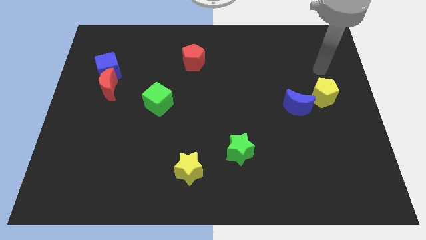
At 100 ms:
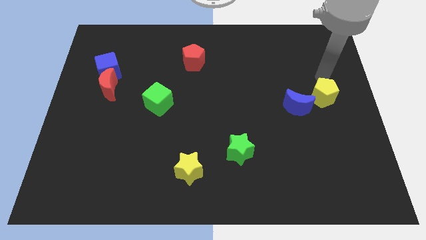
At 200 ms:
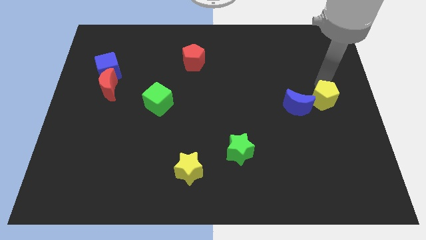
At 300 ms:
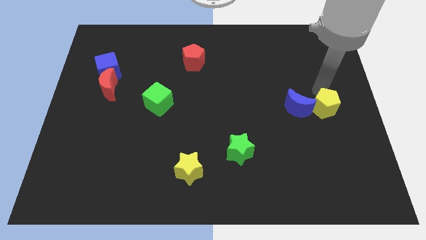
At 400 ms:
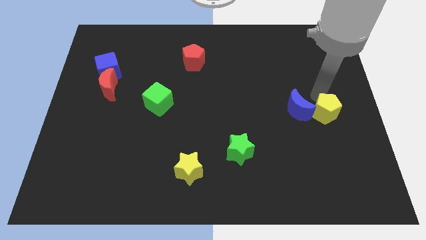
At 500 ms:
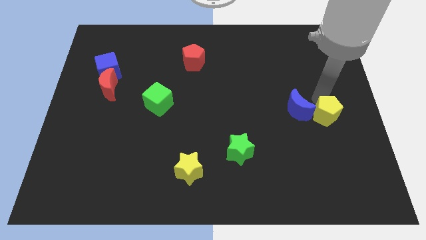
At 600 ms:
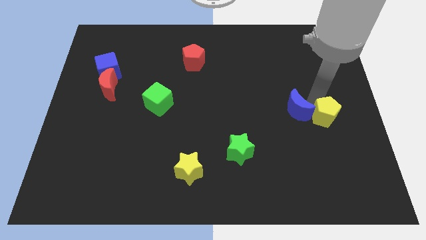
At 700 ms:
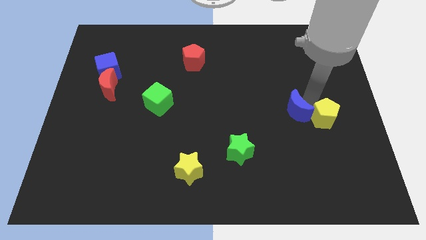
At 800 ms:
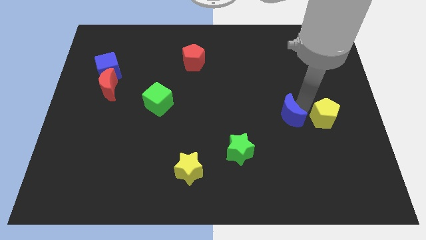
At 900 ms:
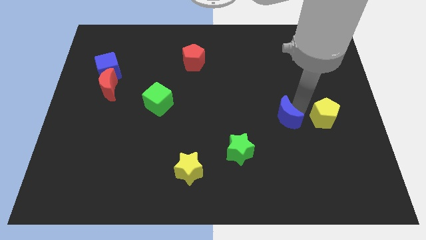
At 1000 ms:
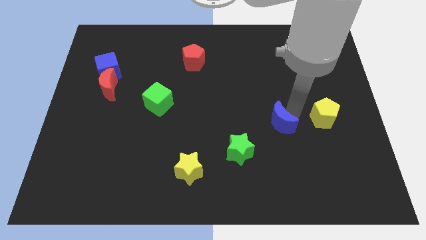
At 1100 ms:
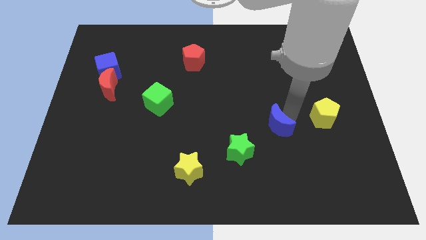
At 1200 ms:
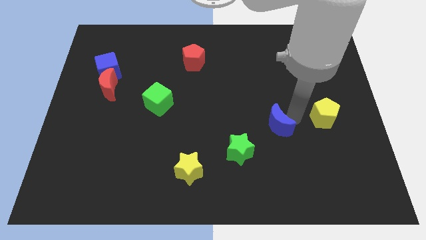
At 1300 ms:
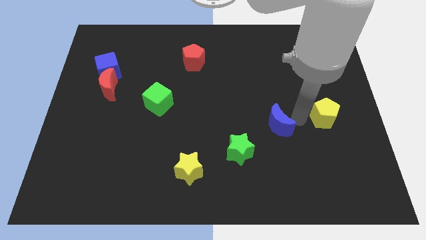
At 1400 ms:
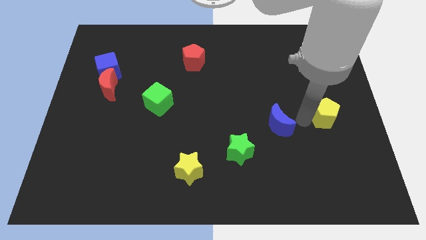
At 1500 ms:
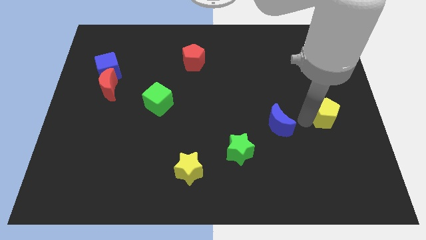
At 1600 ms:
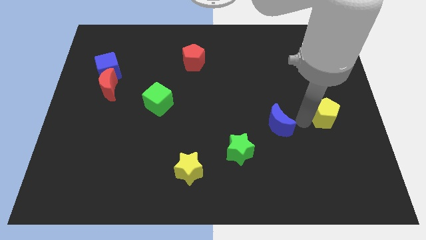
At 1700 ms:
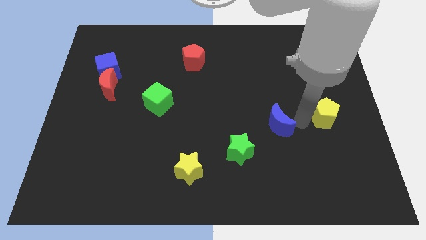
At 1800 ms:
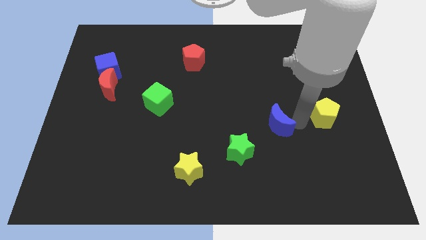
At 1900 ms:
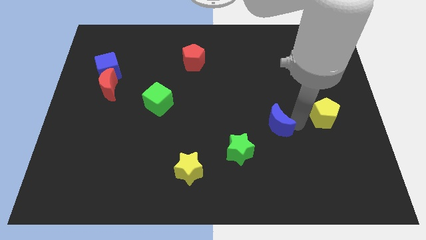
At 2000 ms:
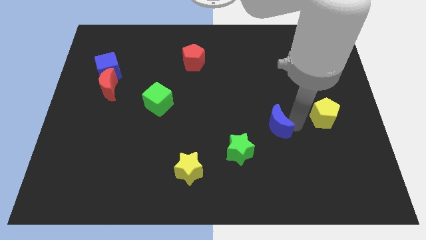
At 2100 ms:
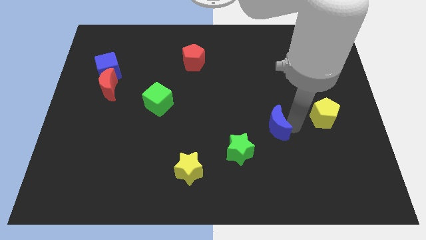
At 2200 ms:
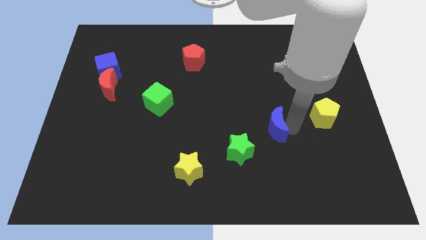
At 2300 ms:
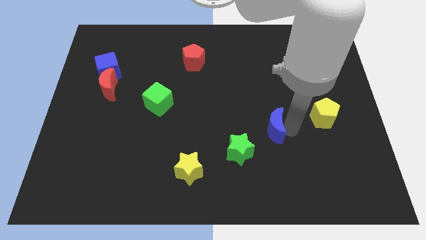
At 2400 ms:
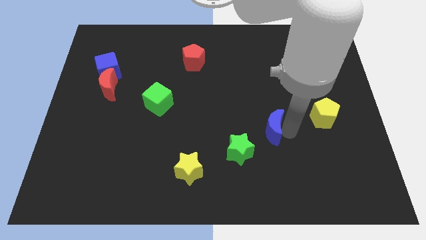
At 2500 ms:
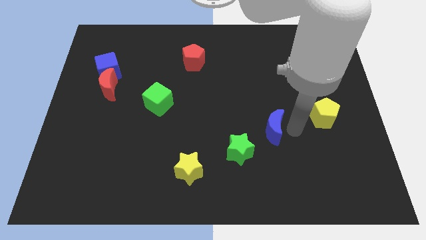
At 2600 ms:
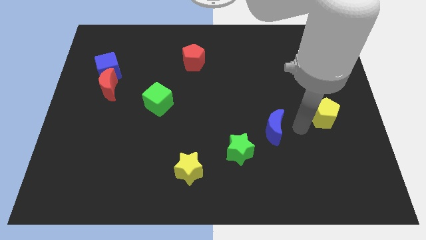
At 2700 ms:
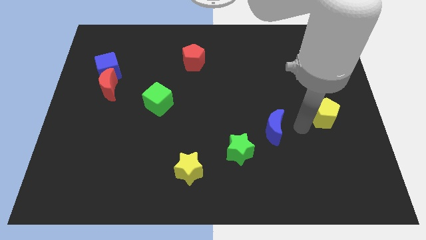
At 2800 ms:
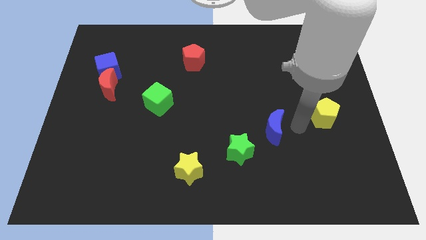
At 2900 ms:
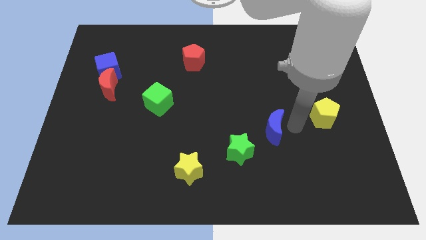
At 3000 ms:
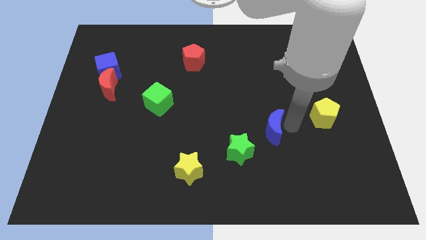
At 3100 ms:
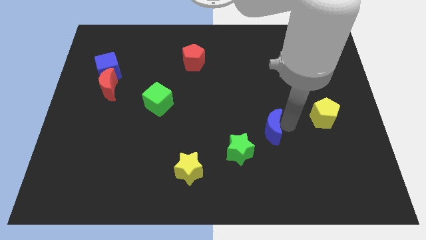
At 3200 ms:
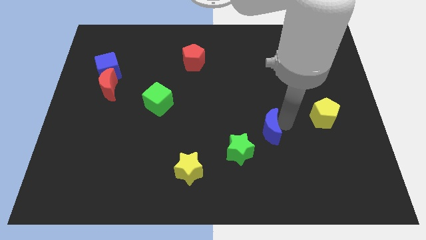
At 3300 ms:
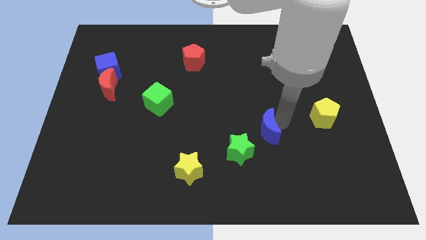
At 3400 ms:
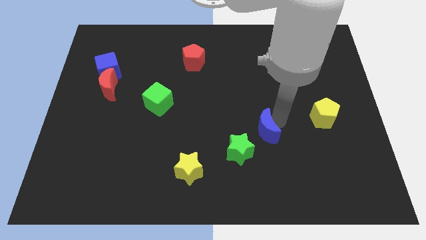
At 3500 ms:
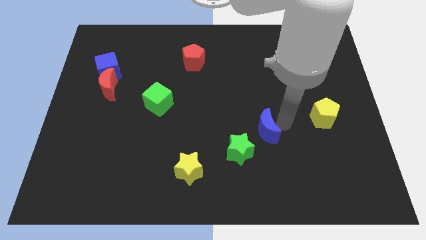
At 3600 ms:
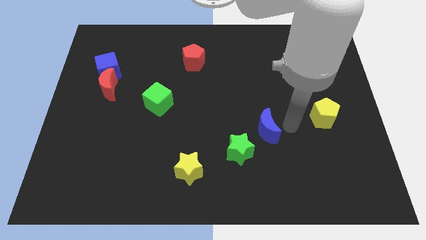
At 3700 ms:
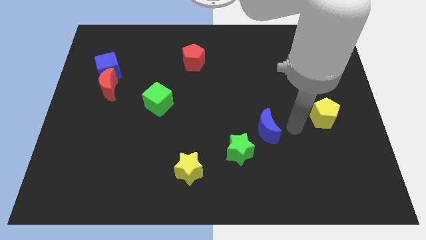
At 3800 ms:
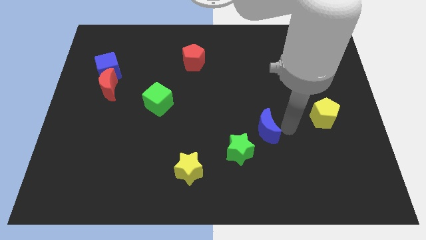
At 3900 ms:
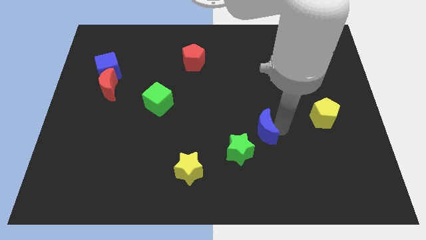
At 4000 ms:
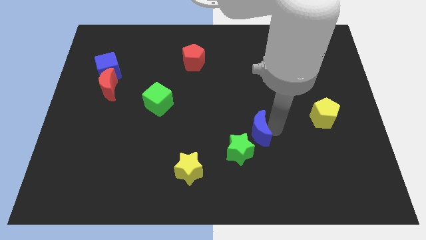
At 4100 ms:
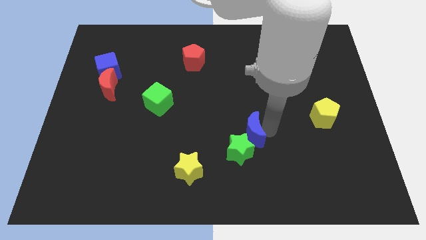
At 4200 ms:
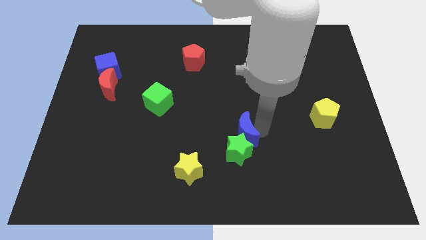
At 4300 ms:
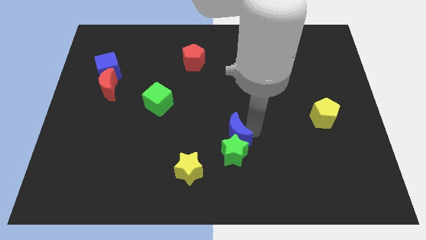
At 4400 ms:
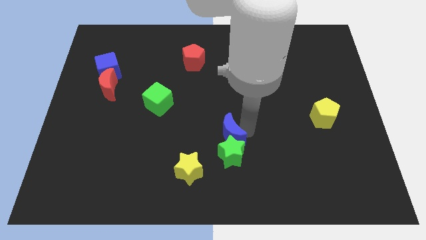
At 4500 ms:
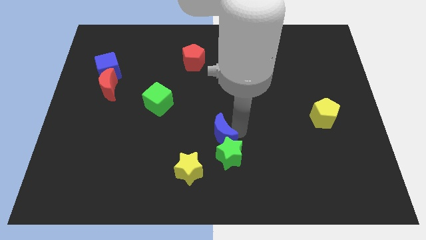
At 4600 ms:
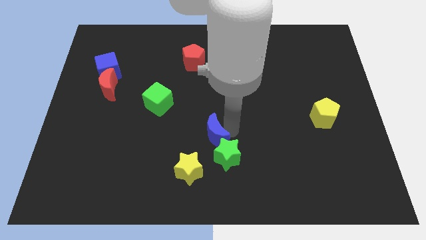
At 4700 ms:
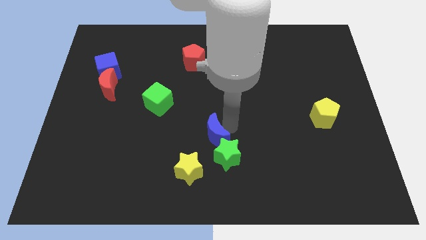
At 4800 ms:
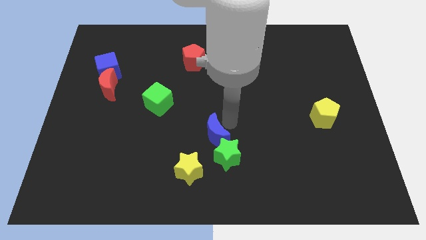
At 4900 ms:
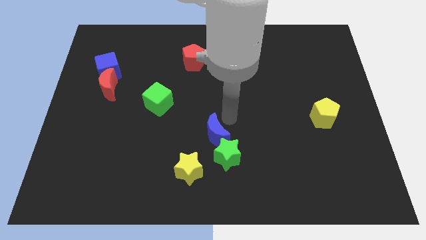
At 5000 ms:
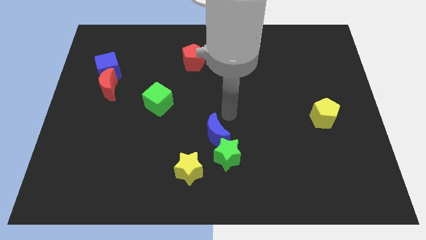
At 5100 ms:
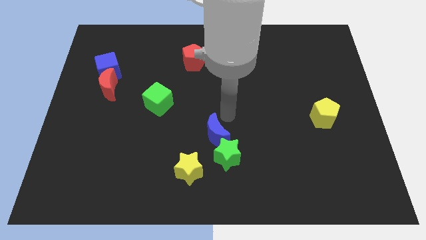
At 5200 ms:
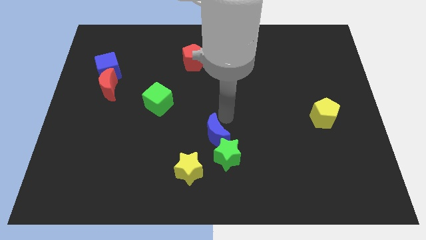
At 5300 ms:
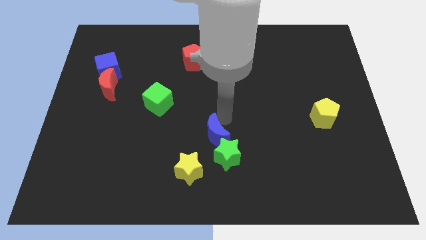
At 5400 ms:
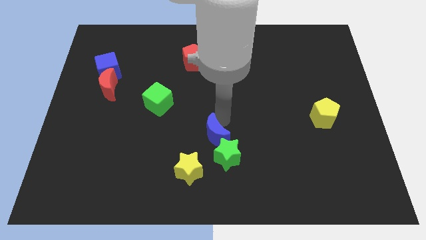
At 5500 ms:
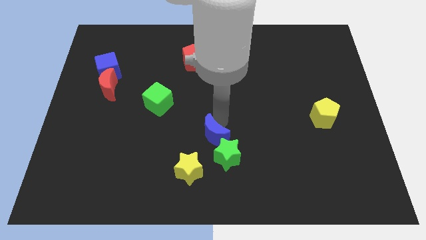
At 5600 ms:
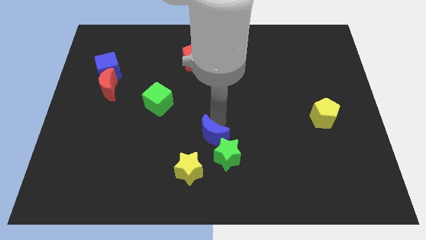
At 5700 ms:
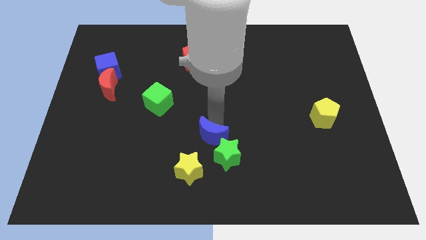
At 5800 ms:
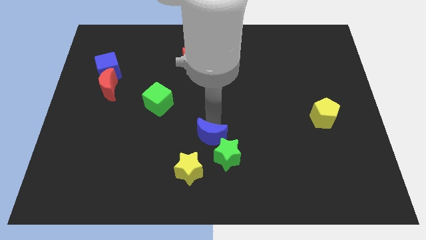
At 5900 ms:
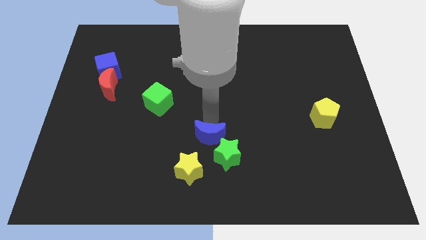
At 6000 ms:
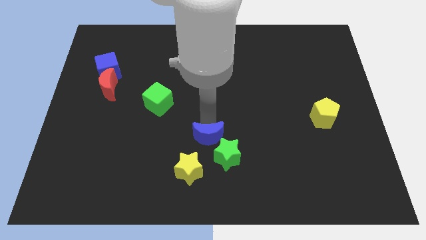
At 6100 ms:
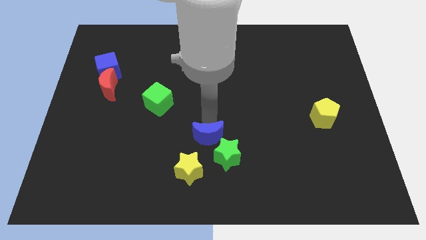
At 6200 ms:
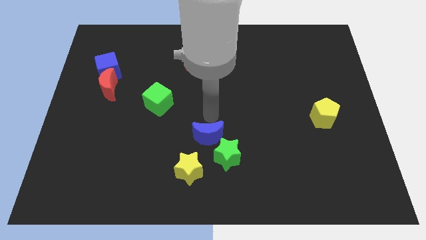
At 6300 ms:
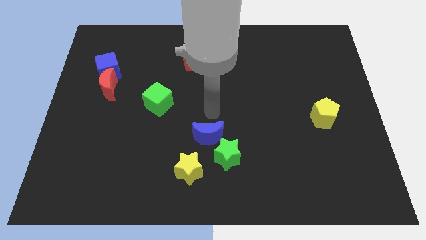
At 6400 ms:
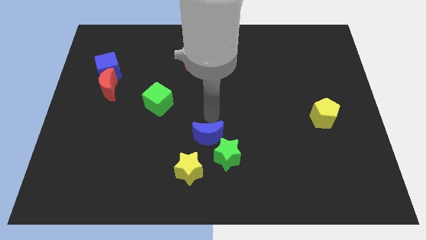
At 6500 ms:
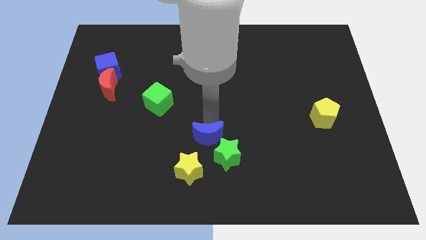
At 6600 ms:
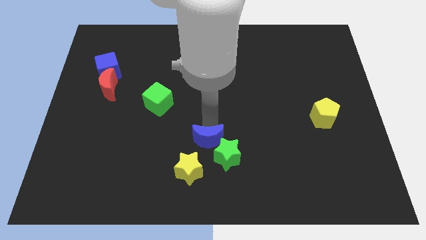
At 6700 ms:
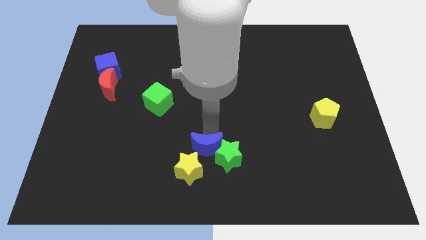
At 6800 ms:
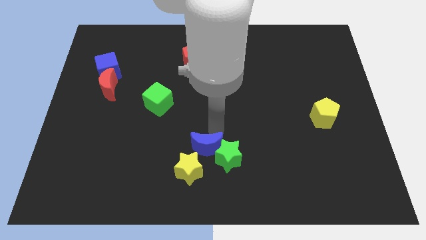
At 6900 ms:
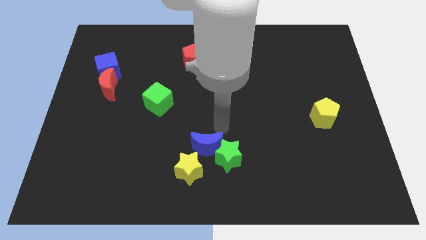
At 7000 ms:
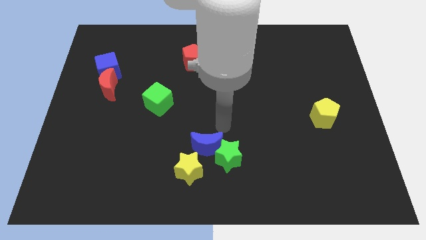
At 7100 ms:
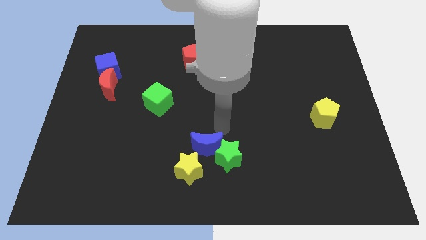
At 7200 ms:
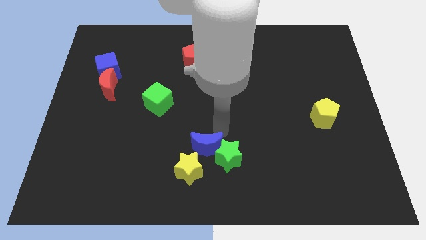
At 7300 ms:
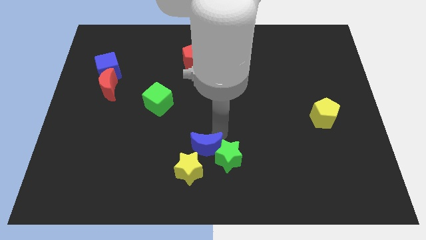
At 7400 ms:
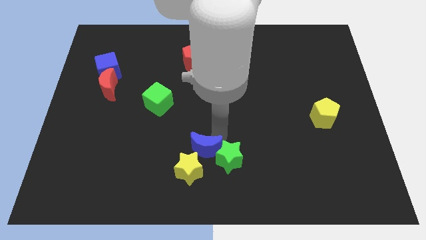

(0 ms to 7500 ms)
move the blue moon next to the yellow star
